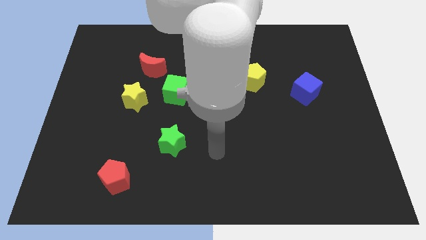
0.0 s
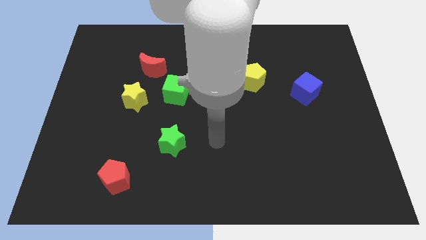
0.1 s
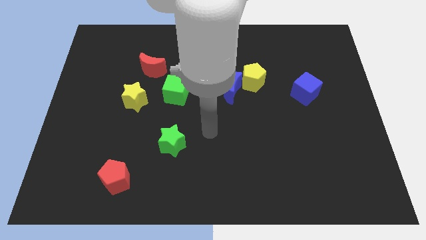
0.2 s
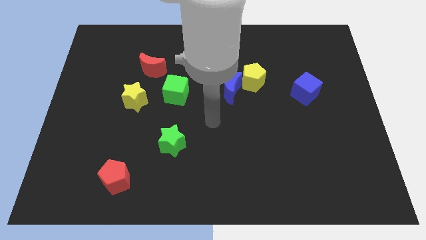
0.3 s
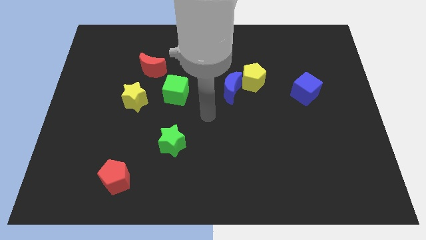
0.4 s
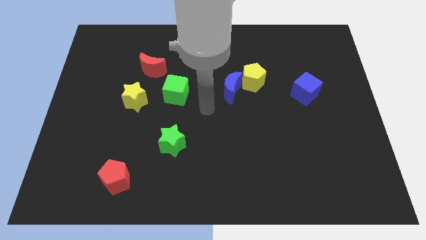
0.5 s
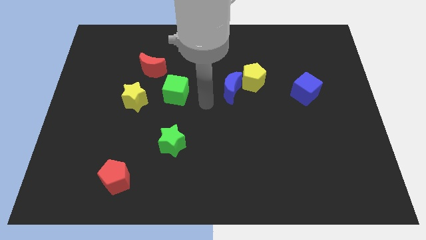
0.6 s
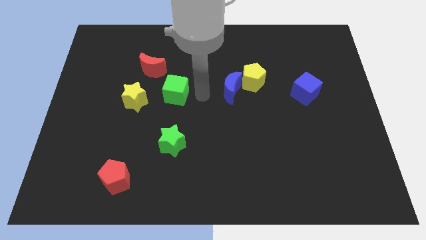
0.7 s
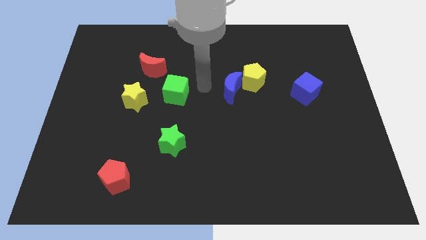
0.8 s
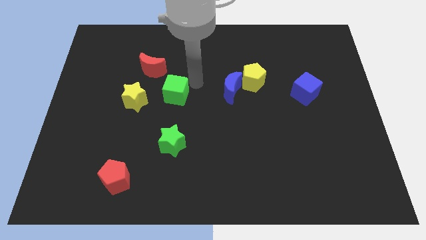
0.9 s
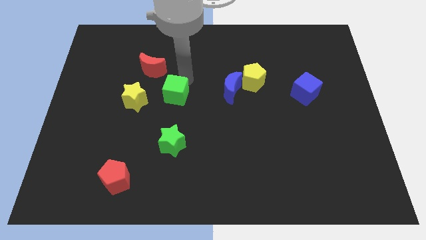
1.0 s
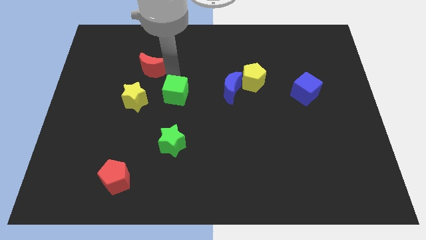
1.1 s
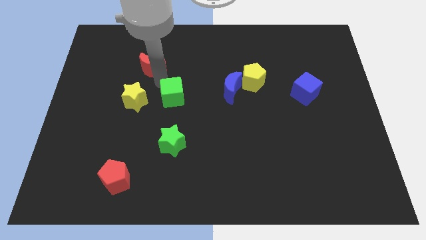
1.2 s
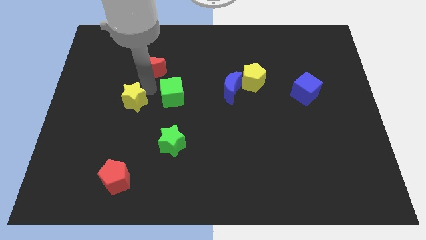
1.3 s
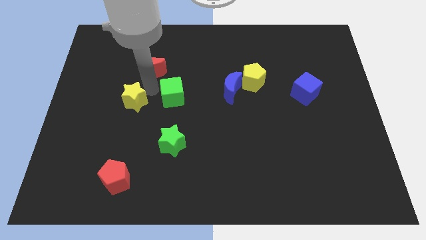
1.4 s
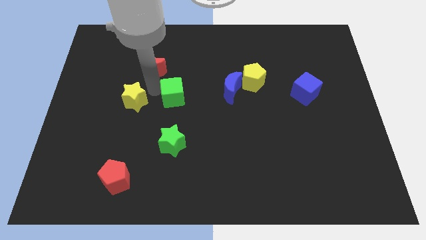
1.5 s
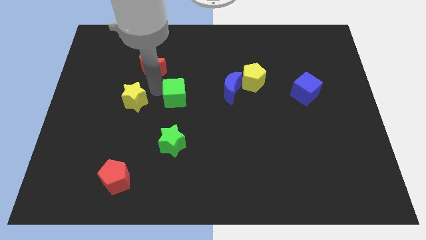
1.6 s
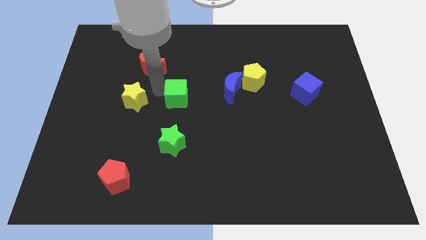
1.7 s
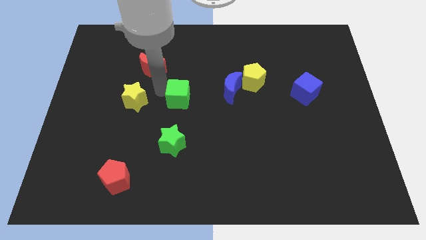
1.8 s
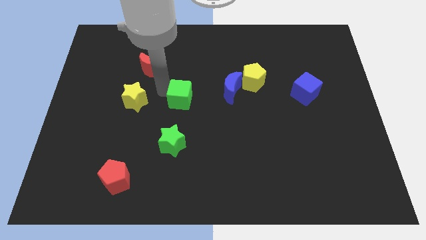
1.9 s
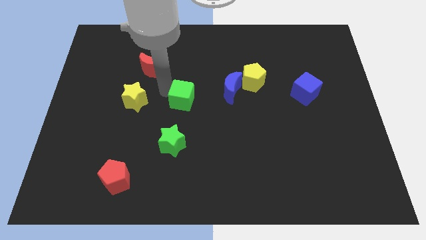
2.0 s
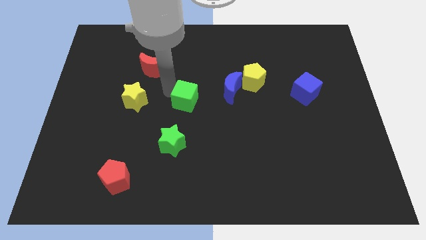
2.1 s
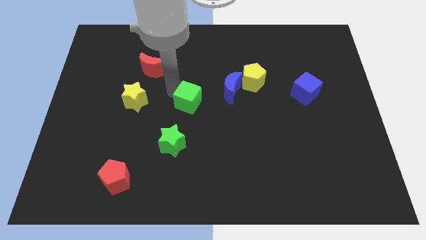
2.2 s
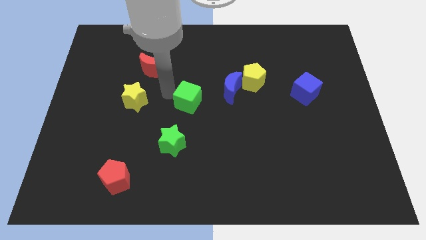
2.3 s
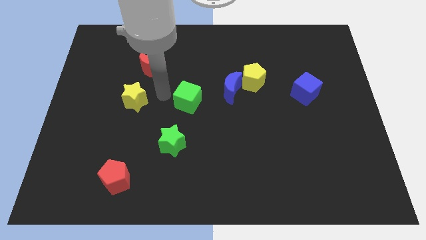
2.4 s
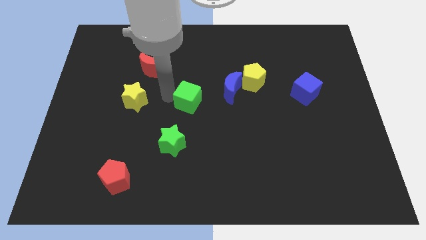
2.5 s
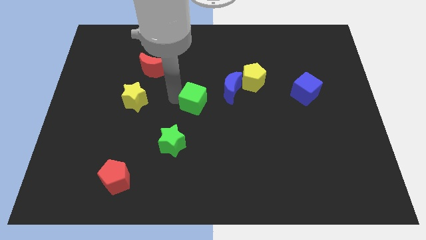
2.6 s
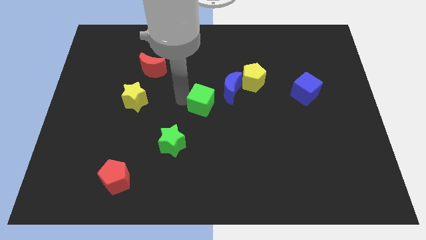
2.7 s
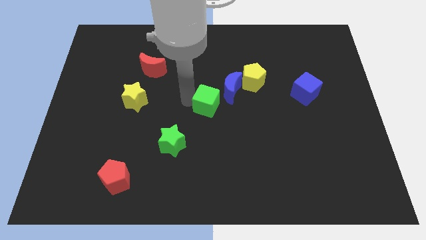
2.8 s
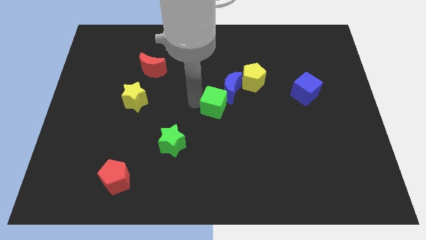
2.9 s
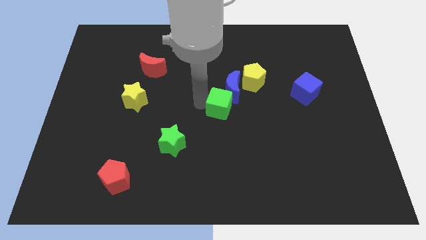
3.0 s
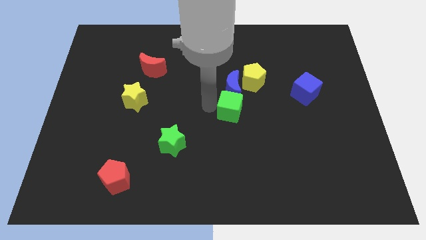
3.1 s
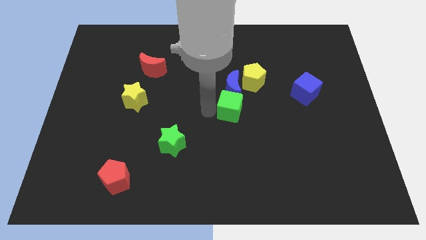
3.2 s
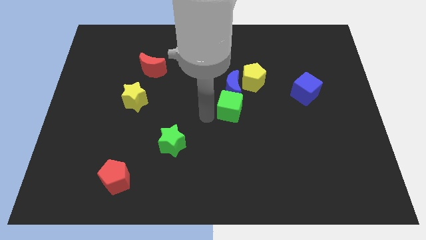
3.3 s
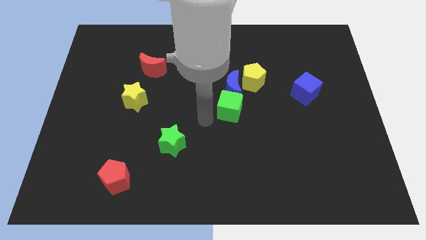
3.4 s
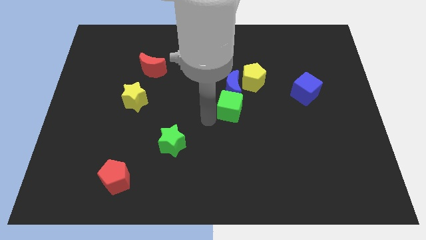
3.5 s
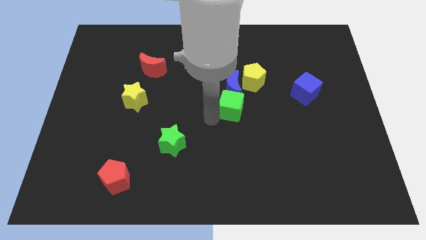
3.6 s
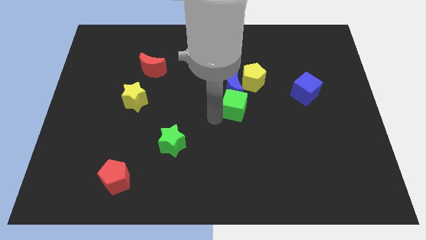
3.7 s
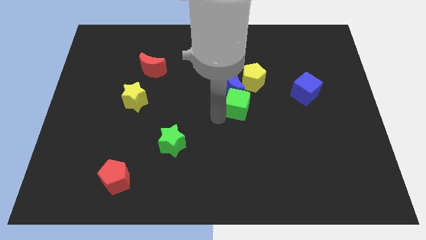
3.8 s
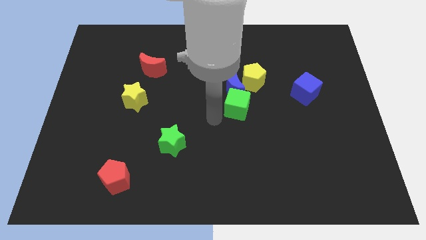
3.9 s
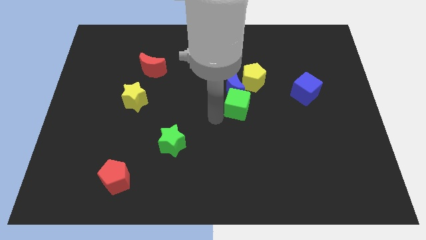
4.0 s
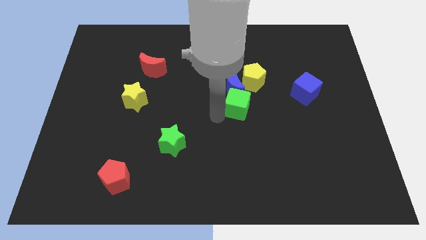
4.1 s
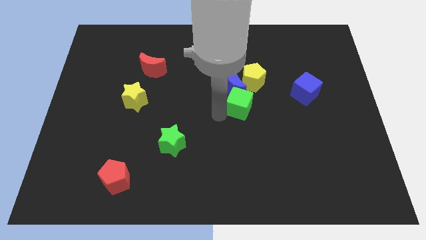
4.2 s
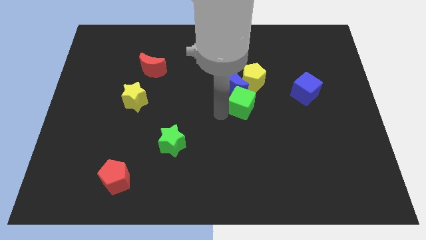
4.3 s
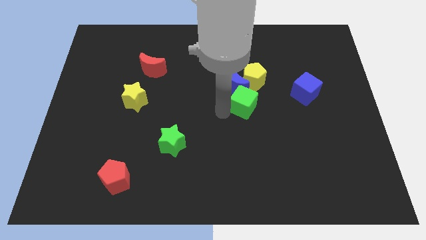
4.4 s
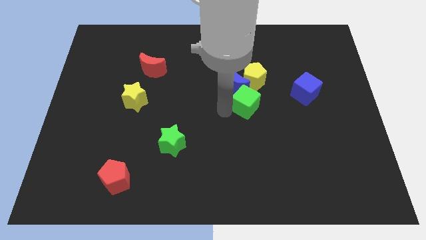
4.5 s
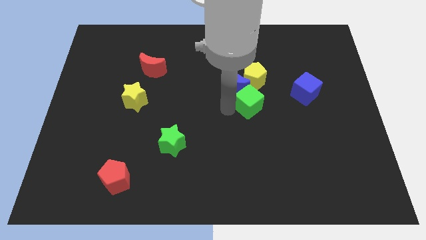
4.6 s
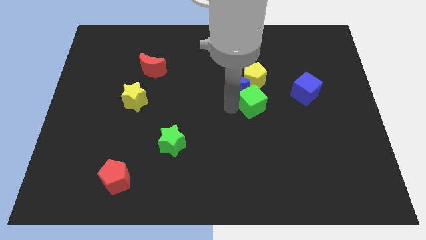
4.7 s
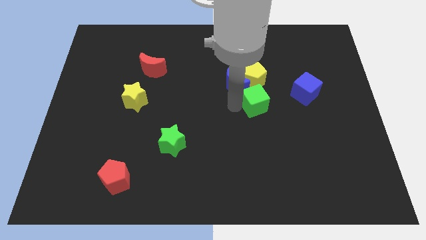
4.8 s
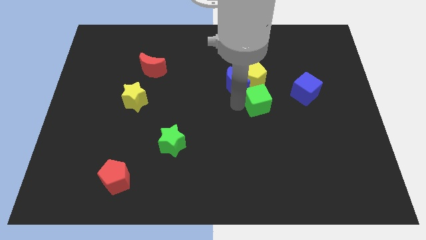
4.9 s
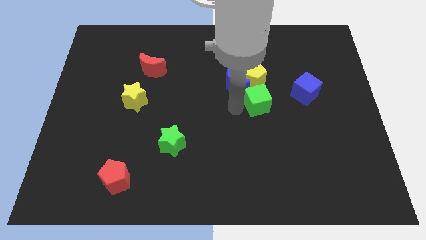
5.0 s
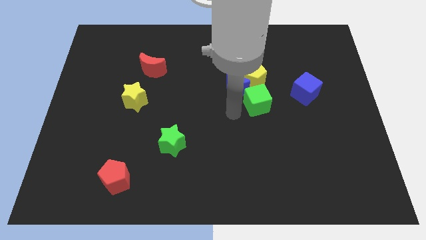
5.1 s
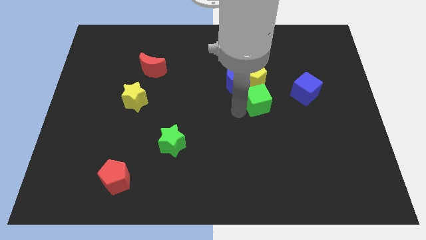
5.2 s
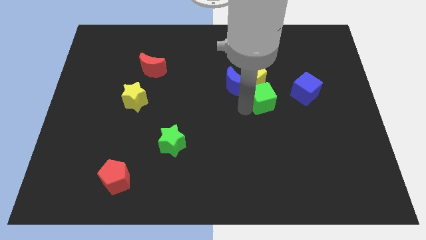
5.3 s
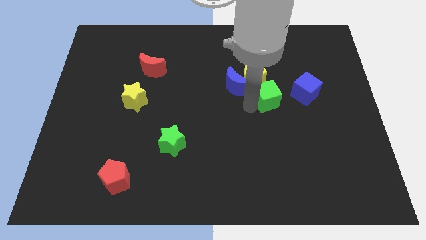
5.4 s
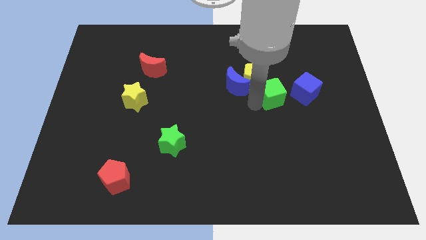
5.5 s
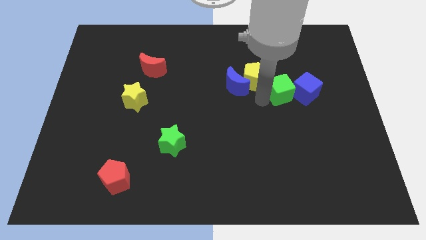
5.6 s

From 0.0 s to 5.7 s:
put the green cube close to the blue cube

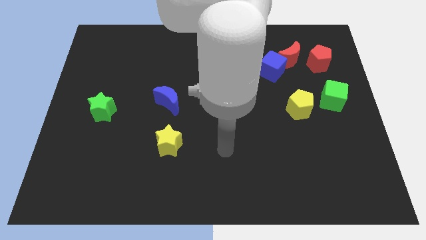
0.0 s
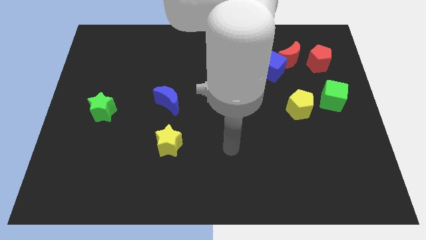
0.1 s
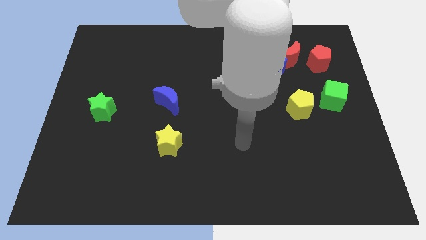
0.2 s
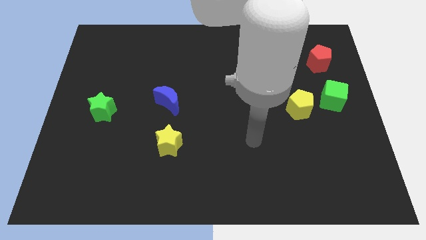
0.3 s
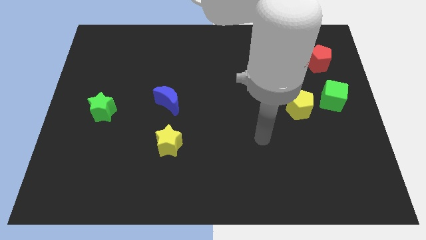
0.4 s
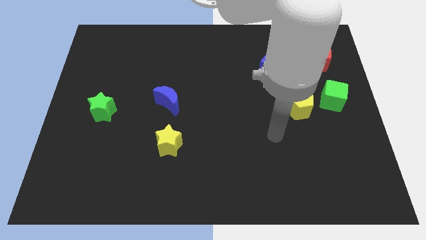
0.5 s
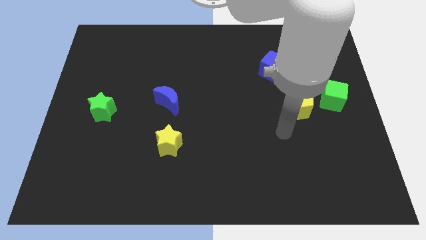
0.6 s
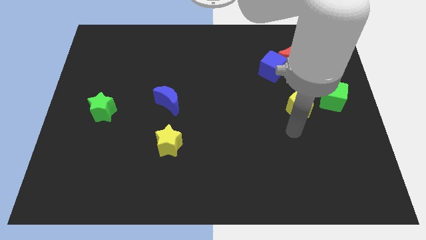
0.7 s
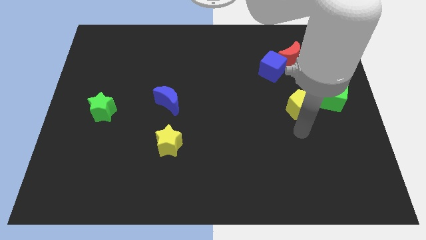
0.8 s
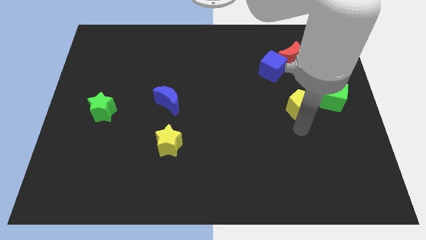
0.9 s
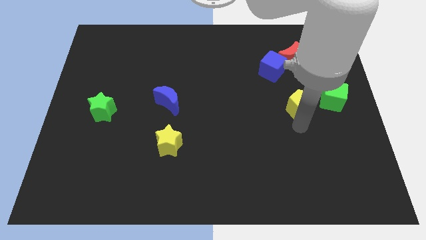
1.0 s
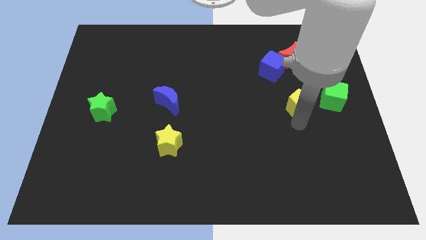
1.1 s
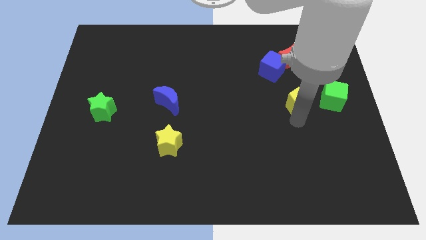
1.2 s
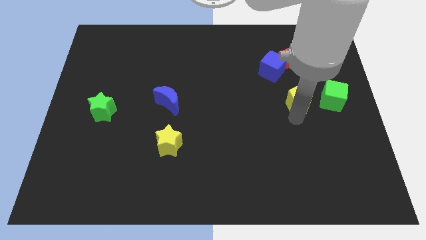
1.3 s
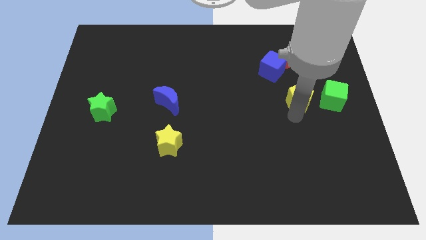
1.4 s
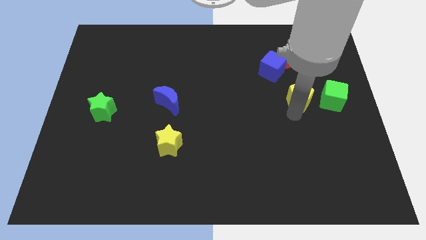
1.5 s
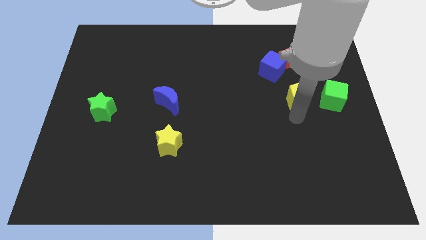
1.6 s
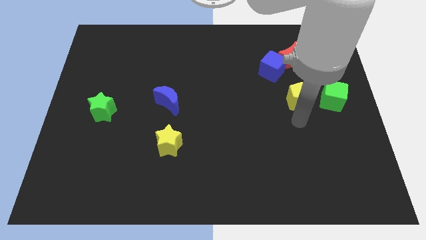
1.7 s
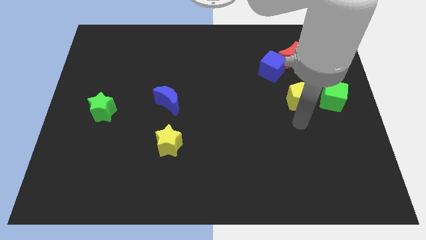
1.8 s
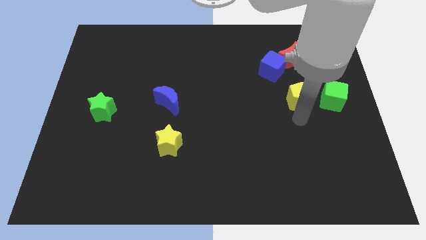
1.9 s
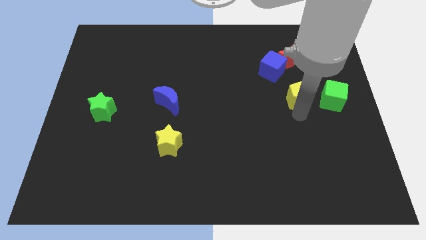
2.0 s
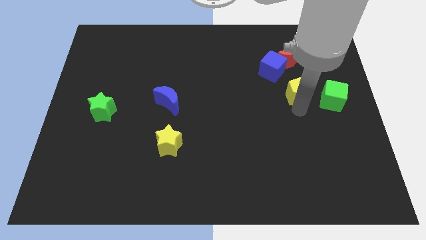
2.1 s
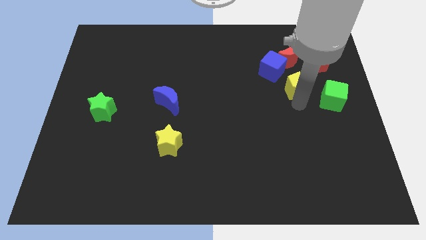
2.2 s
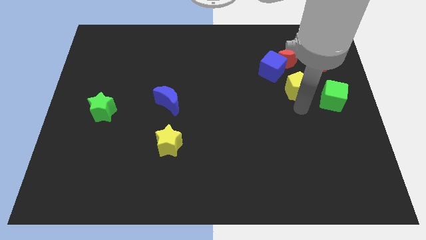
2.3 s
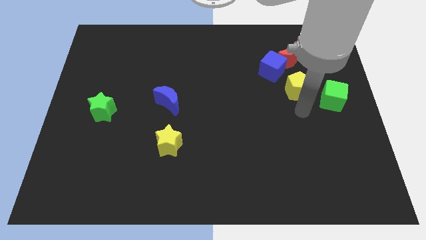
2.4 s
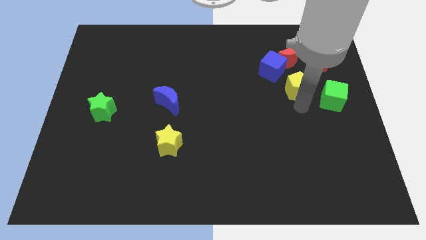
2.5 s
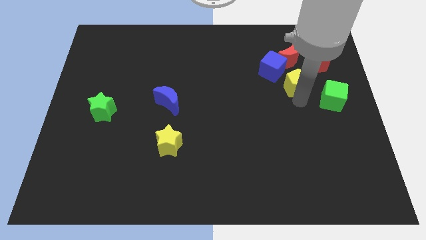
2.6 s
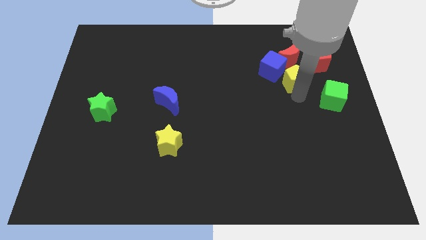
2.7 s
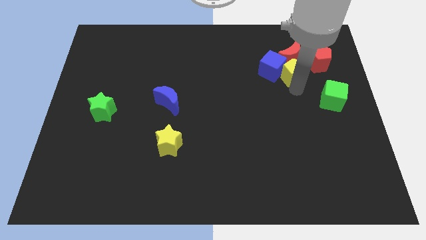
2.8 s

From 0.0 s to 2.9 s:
slide the yellow pentagon to the red moon
